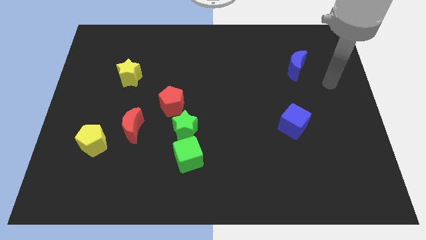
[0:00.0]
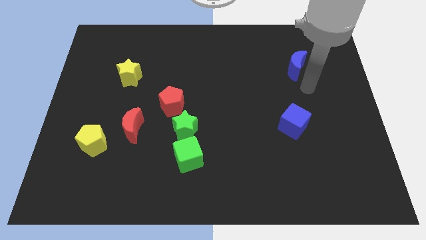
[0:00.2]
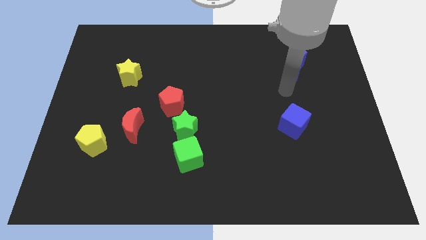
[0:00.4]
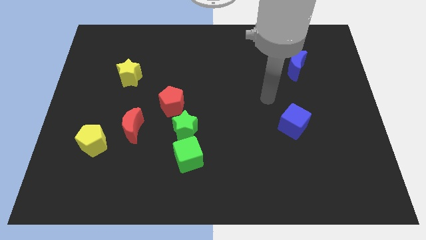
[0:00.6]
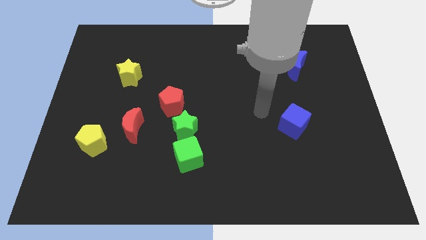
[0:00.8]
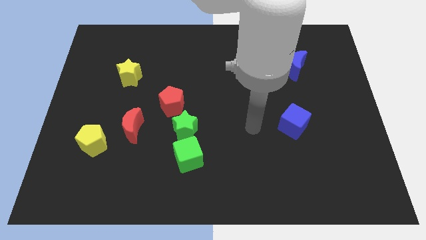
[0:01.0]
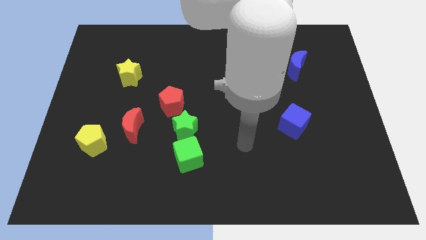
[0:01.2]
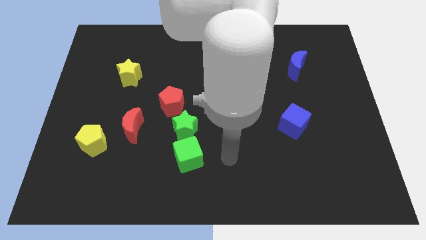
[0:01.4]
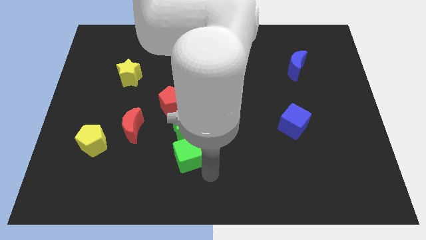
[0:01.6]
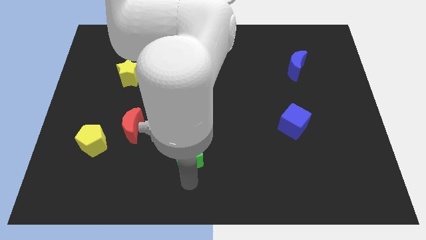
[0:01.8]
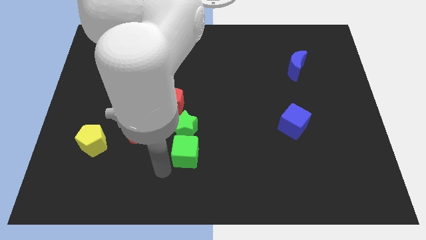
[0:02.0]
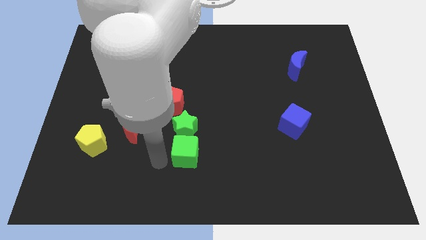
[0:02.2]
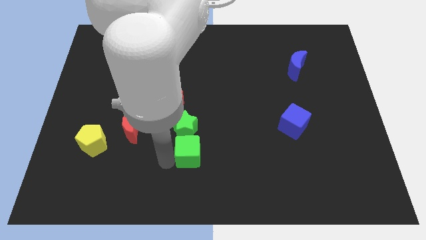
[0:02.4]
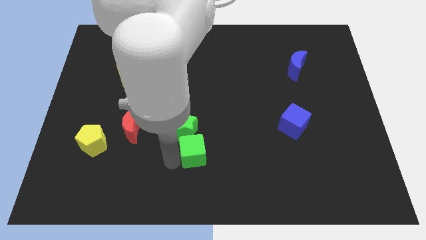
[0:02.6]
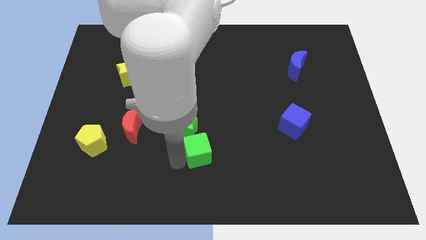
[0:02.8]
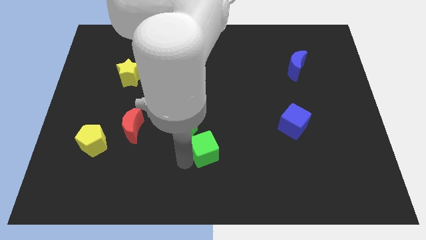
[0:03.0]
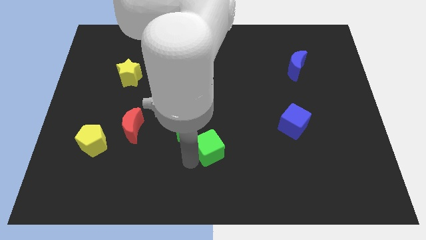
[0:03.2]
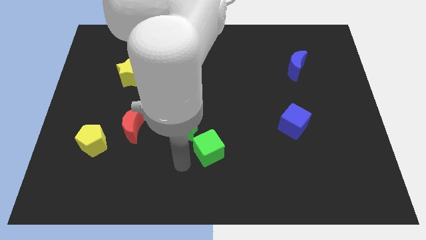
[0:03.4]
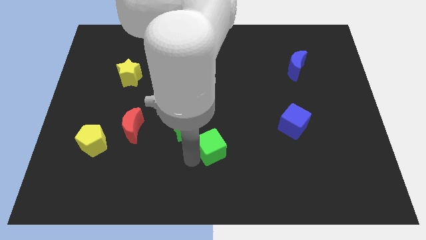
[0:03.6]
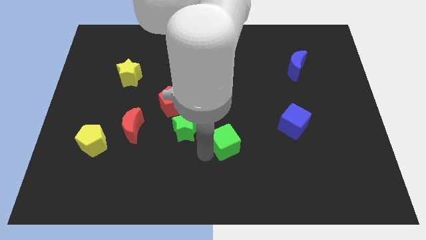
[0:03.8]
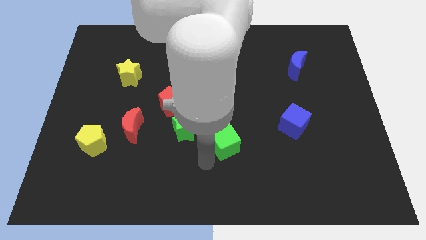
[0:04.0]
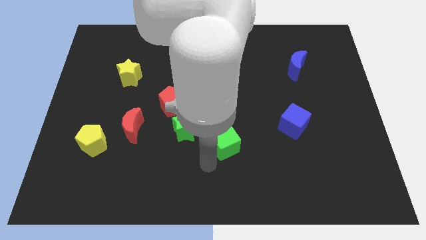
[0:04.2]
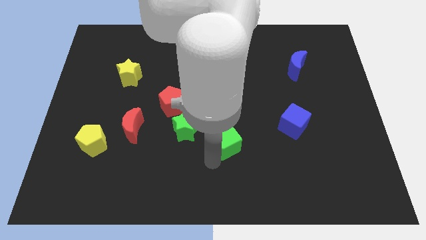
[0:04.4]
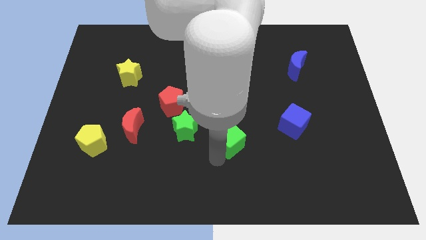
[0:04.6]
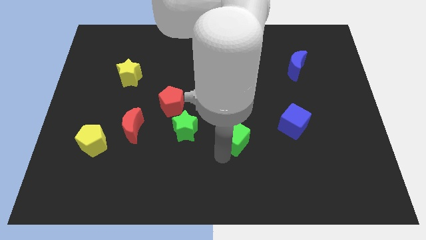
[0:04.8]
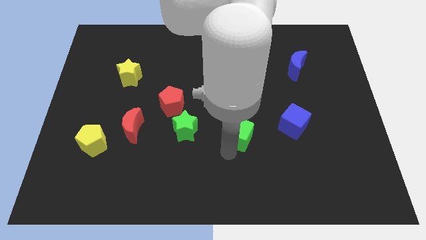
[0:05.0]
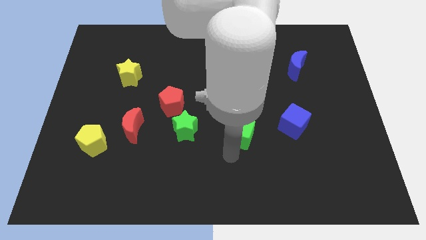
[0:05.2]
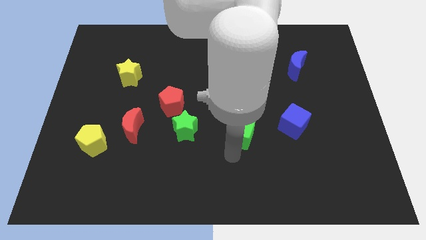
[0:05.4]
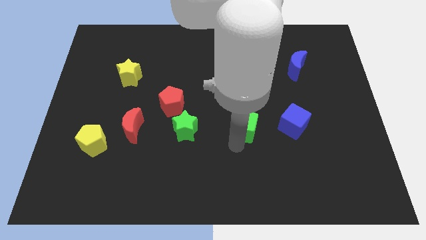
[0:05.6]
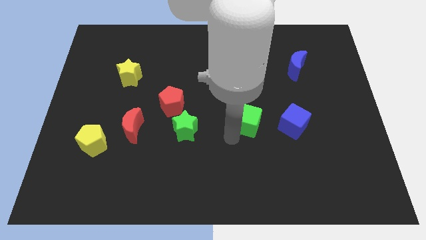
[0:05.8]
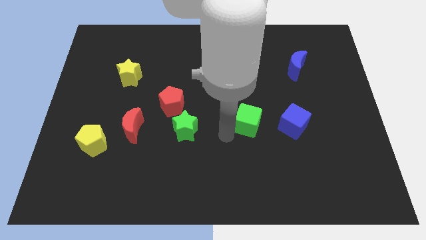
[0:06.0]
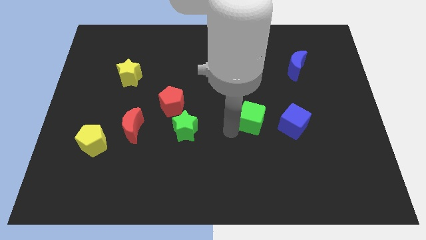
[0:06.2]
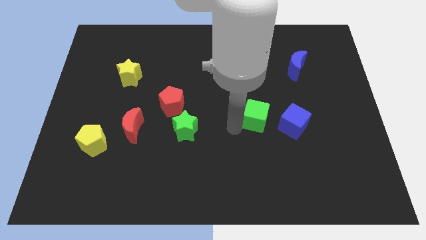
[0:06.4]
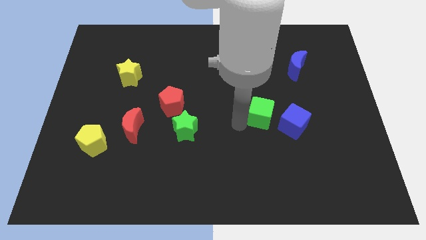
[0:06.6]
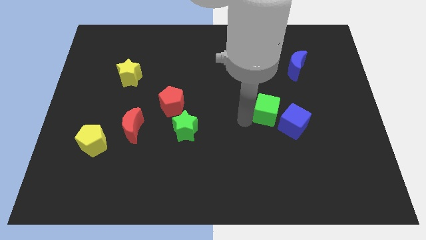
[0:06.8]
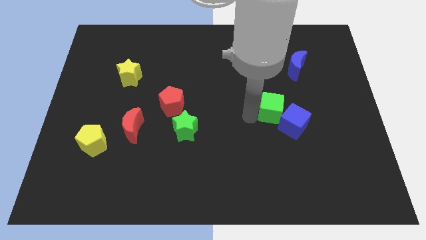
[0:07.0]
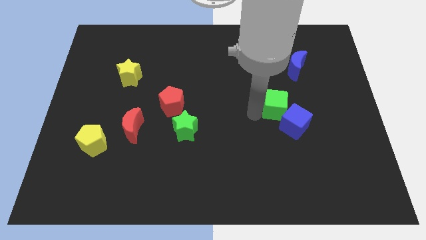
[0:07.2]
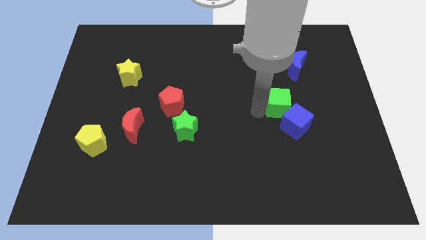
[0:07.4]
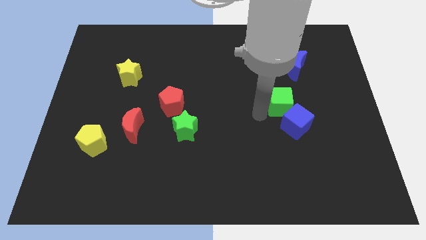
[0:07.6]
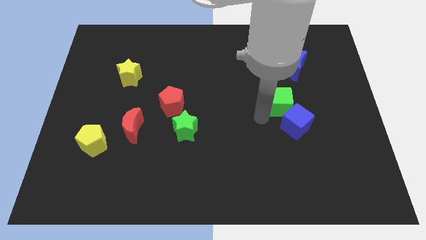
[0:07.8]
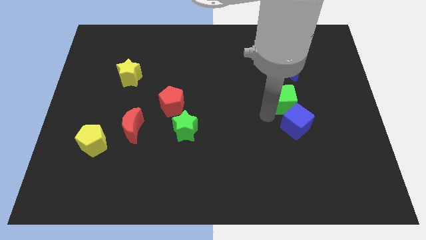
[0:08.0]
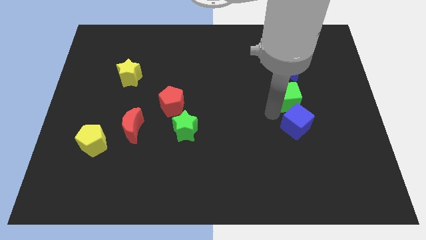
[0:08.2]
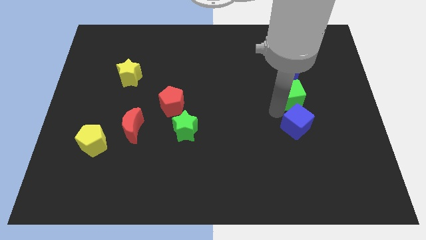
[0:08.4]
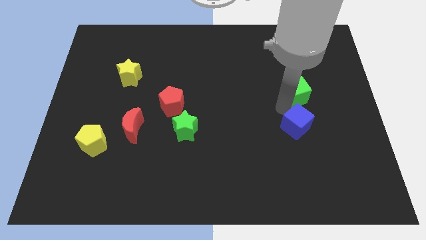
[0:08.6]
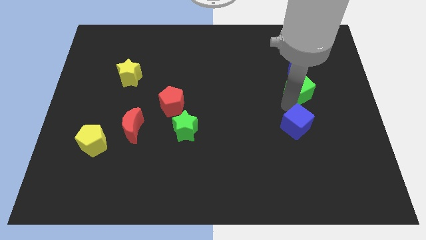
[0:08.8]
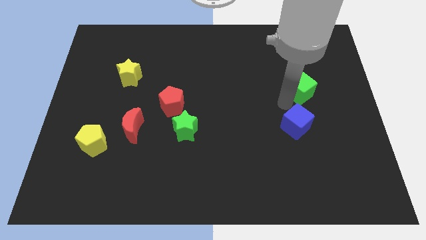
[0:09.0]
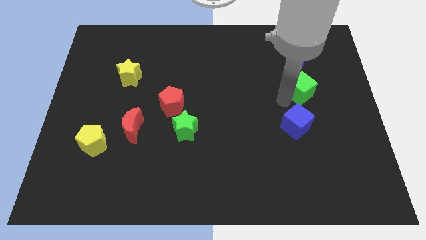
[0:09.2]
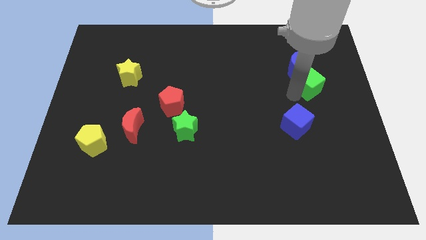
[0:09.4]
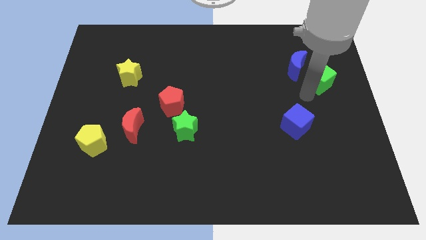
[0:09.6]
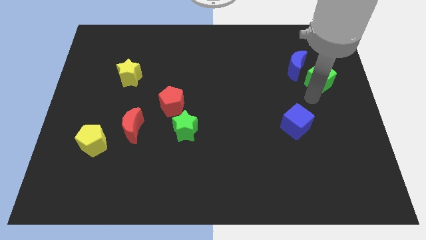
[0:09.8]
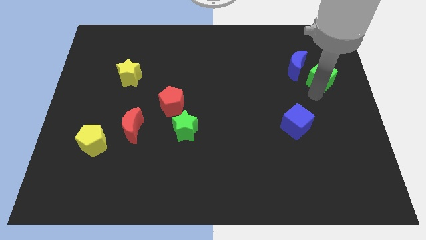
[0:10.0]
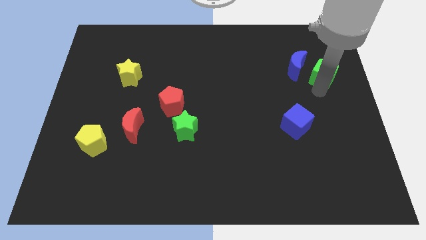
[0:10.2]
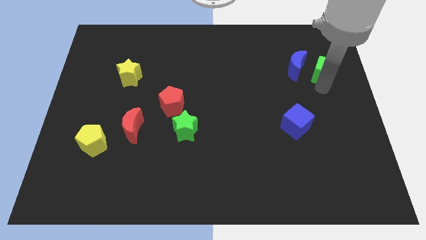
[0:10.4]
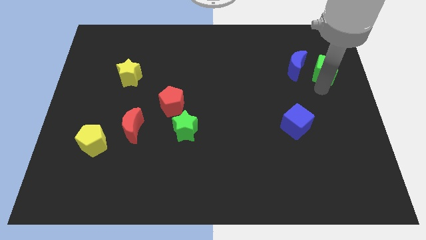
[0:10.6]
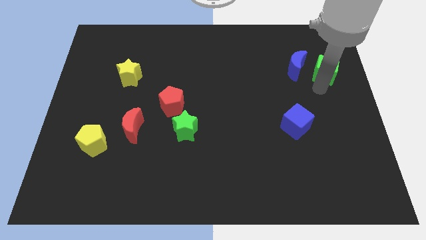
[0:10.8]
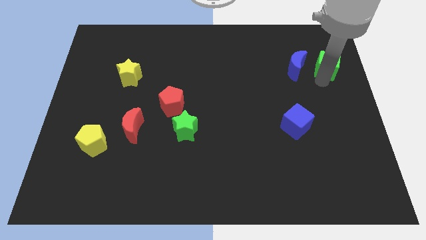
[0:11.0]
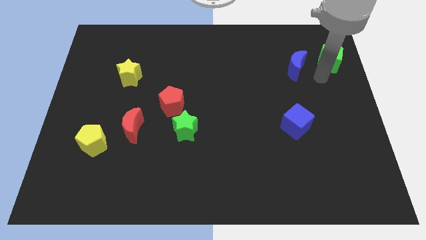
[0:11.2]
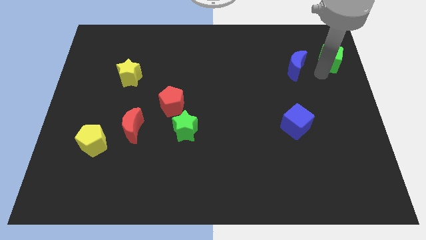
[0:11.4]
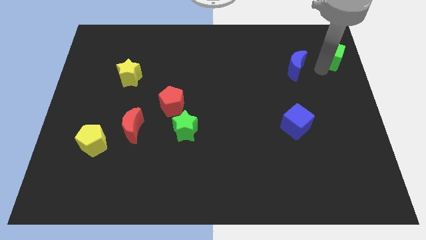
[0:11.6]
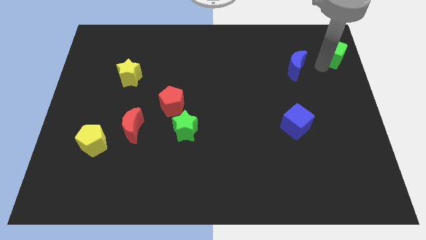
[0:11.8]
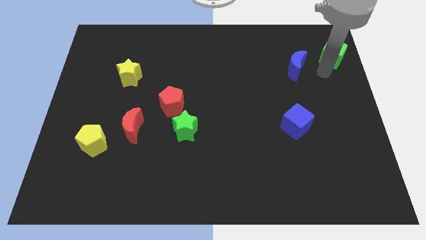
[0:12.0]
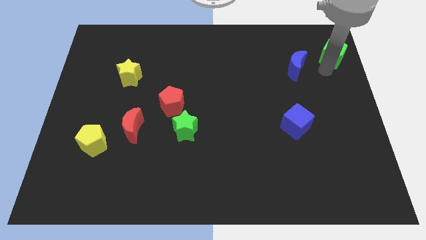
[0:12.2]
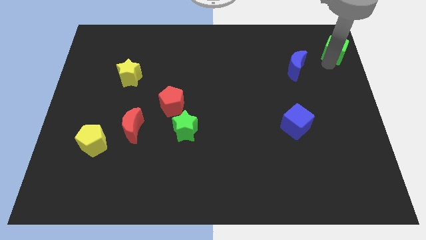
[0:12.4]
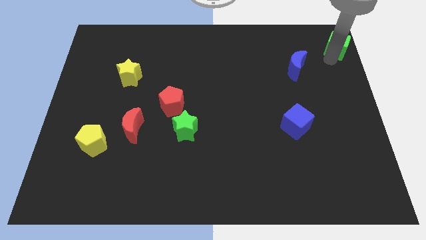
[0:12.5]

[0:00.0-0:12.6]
put the green cube to the upper right corner

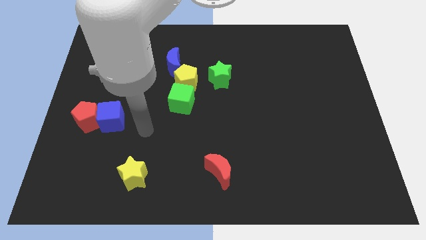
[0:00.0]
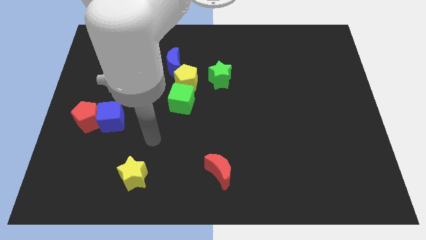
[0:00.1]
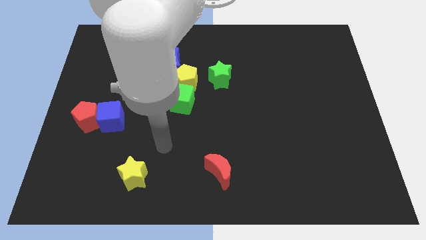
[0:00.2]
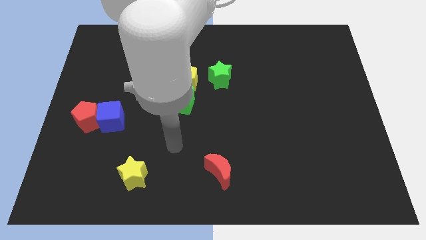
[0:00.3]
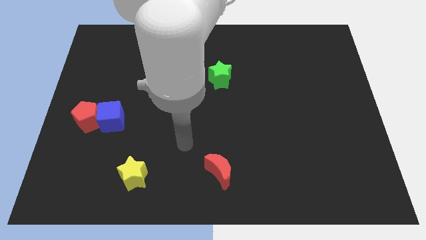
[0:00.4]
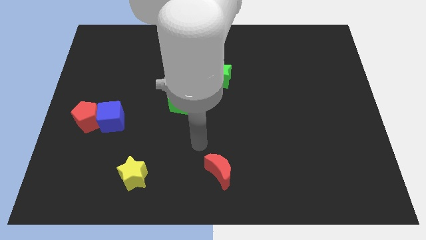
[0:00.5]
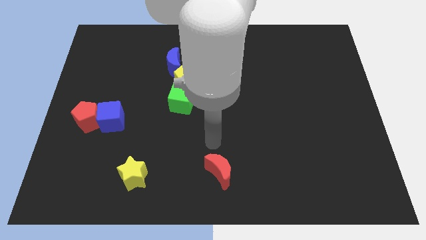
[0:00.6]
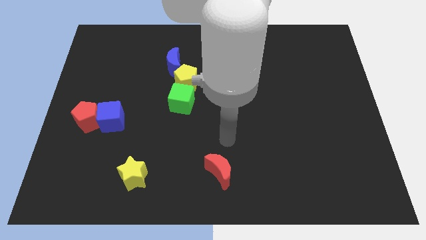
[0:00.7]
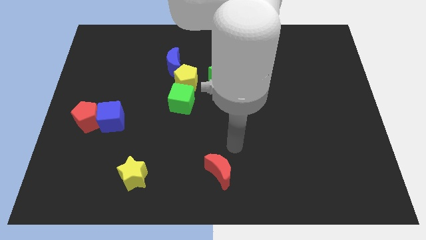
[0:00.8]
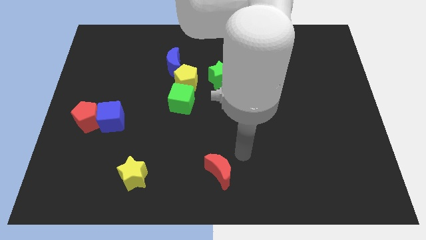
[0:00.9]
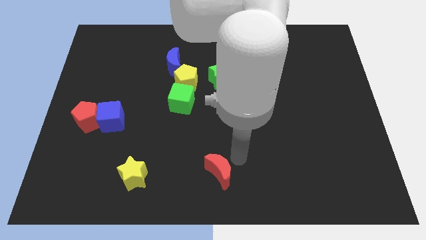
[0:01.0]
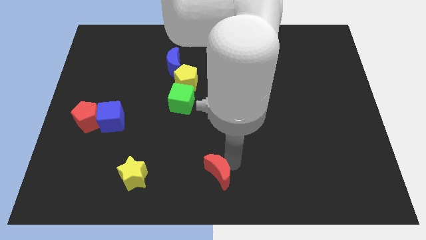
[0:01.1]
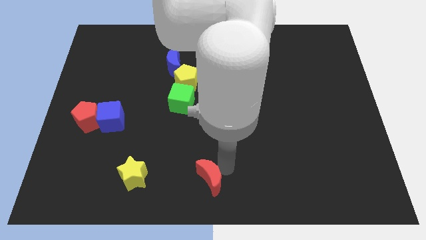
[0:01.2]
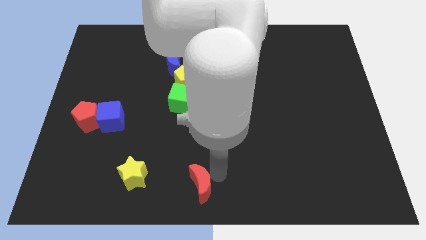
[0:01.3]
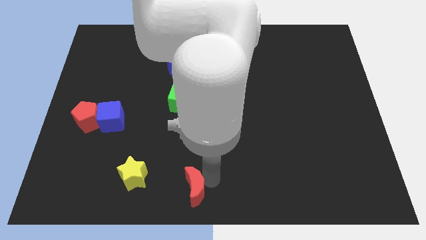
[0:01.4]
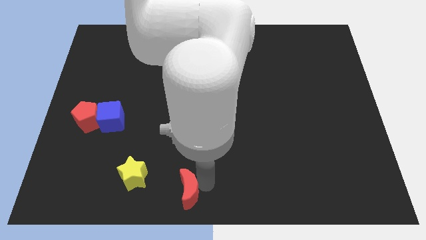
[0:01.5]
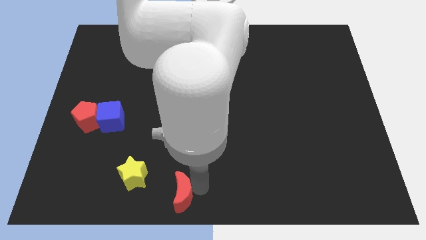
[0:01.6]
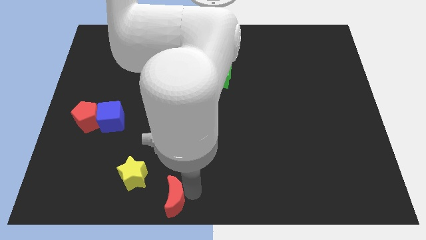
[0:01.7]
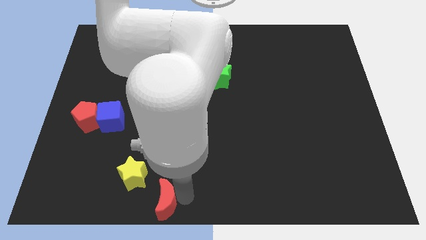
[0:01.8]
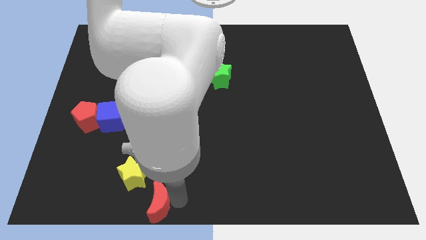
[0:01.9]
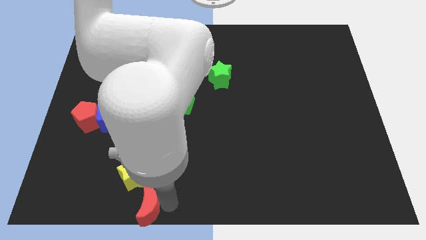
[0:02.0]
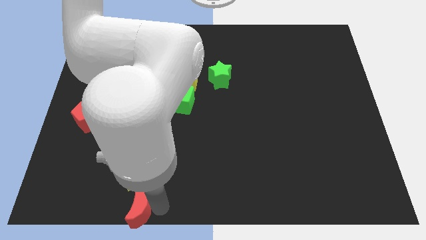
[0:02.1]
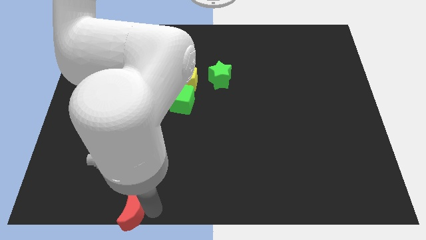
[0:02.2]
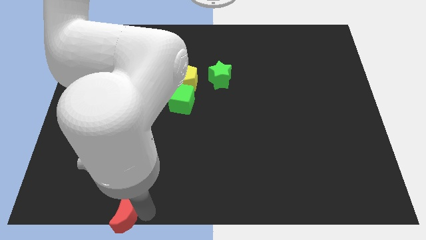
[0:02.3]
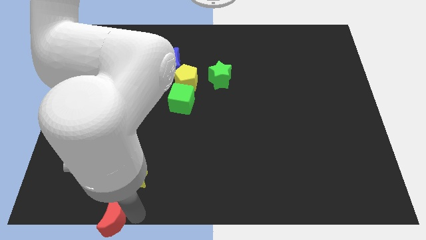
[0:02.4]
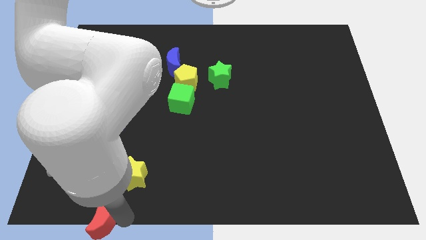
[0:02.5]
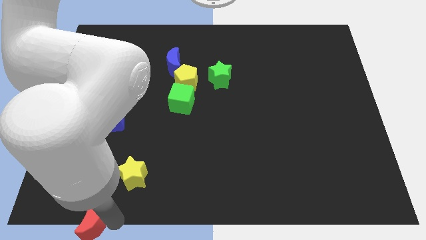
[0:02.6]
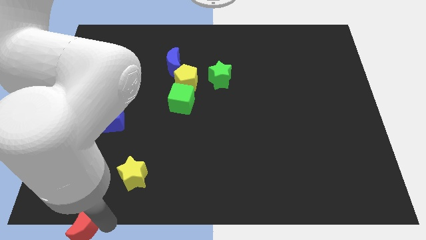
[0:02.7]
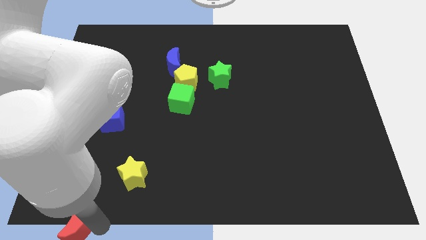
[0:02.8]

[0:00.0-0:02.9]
move the red moon to the bottom left of the board
